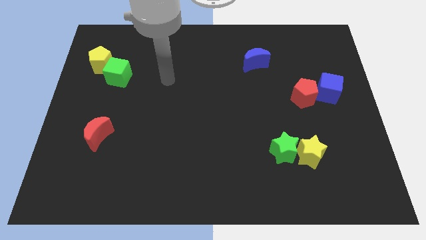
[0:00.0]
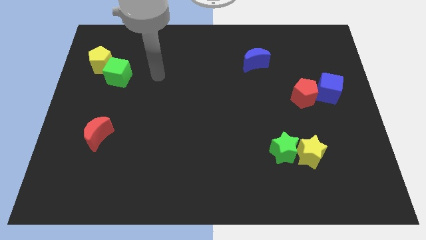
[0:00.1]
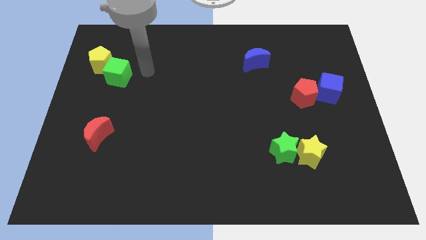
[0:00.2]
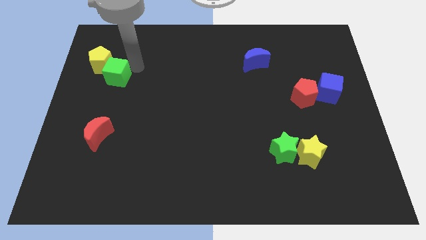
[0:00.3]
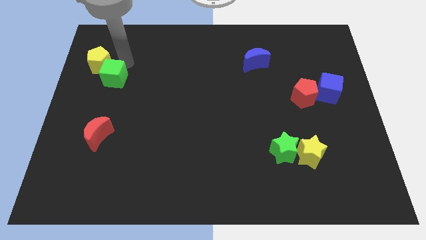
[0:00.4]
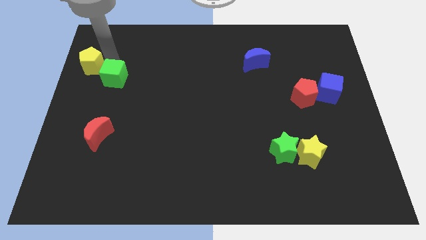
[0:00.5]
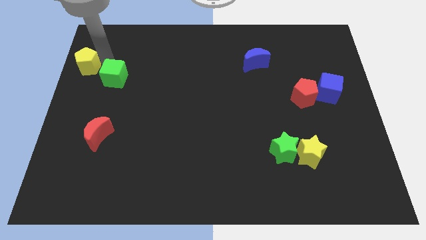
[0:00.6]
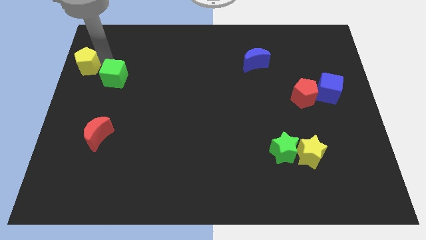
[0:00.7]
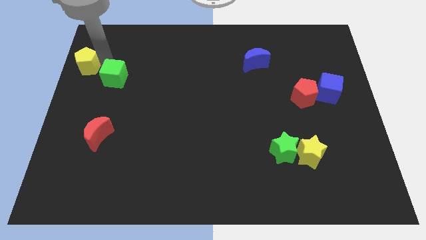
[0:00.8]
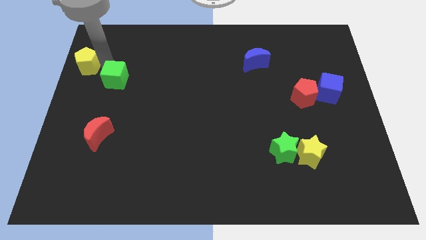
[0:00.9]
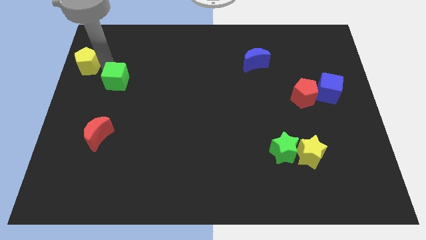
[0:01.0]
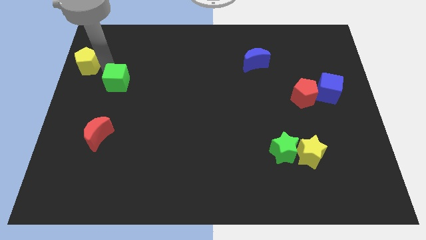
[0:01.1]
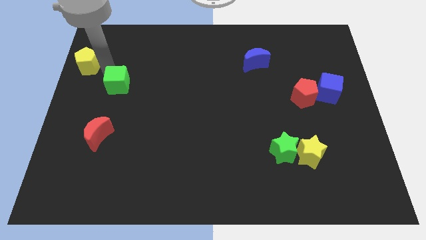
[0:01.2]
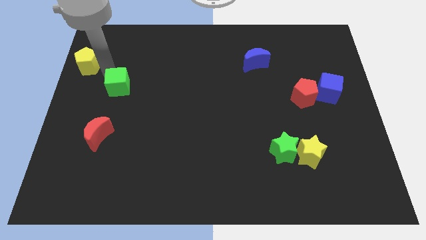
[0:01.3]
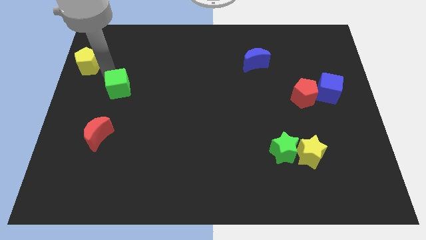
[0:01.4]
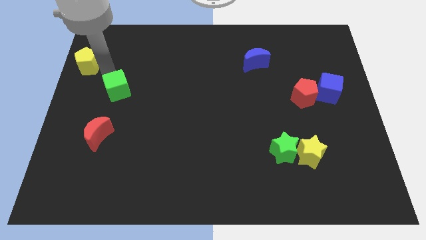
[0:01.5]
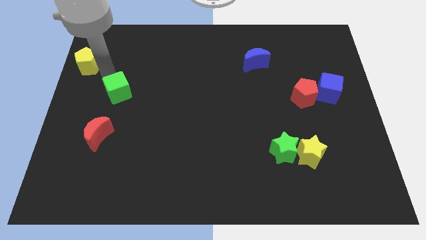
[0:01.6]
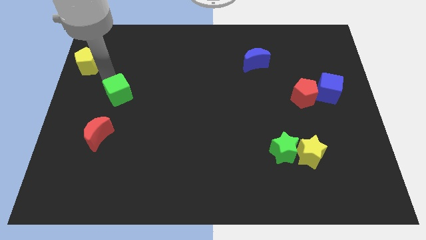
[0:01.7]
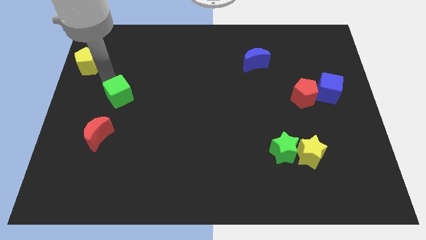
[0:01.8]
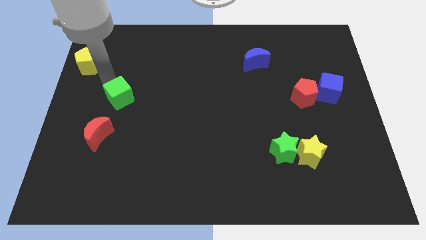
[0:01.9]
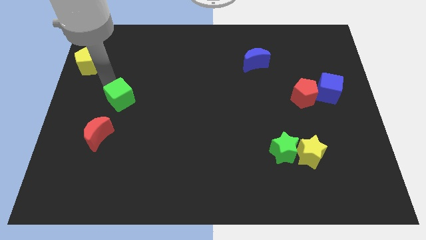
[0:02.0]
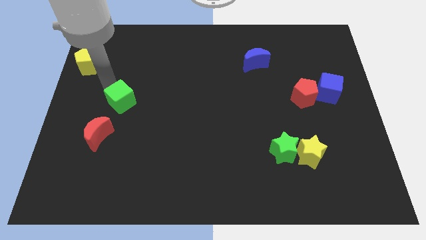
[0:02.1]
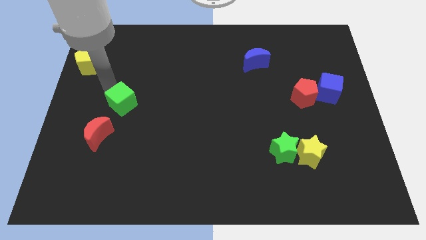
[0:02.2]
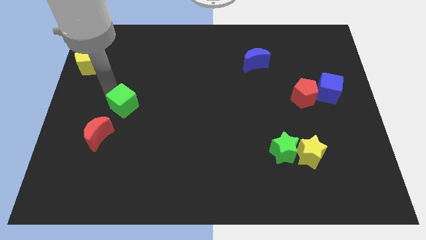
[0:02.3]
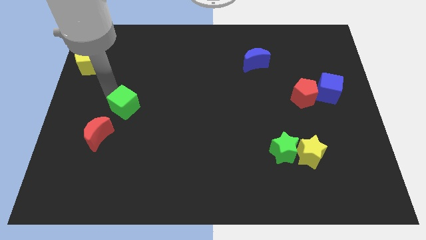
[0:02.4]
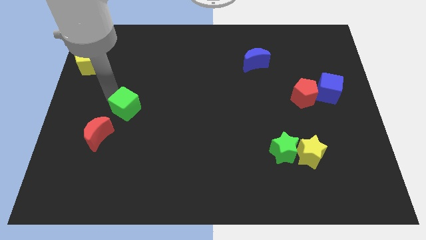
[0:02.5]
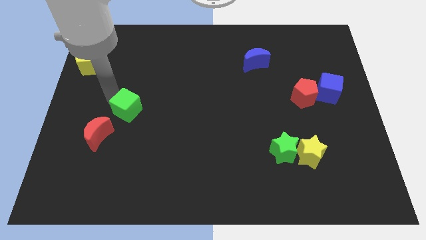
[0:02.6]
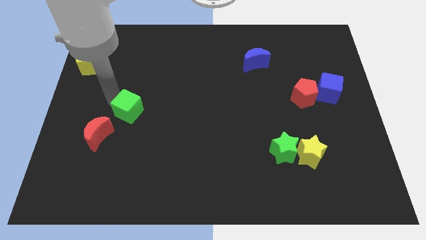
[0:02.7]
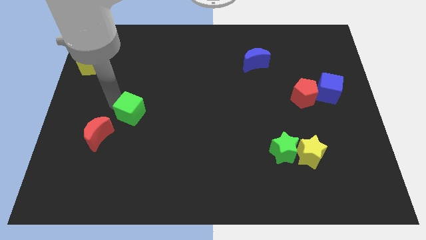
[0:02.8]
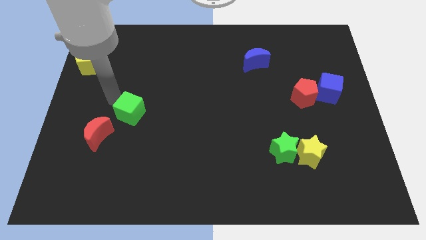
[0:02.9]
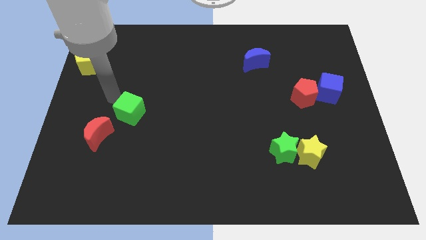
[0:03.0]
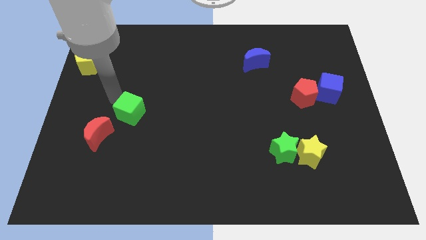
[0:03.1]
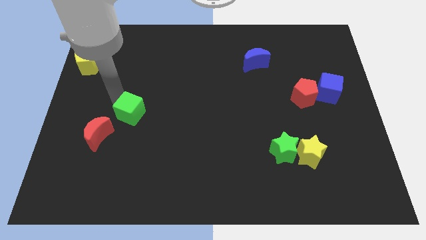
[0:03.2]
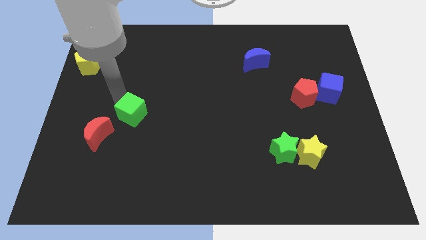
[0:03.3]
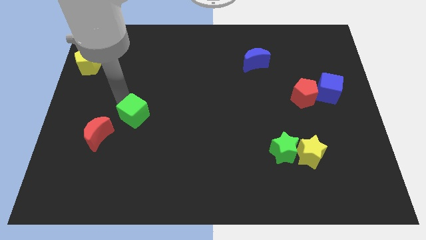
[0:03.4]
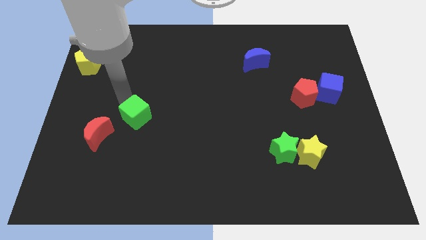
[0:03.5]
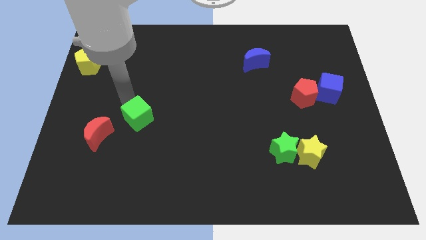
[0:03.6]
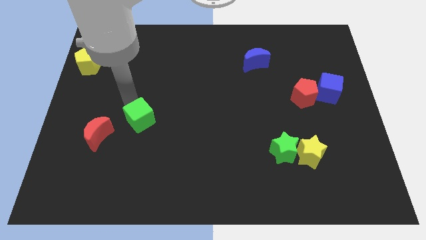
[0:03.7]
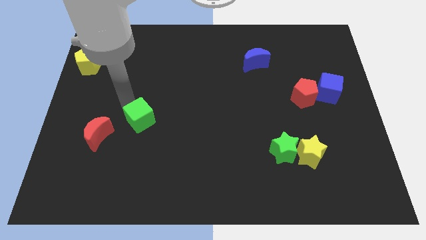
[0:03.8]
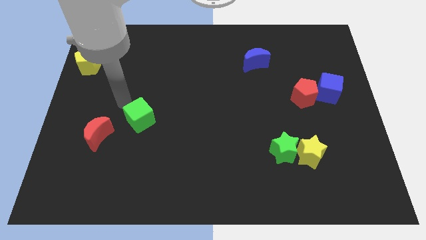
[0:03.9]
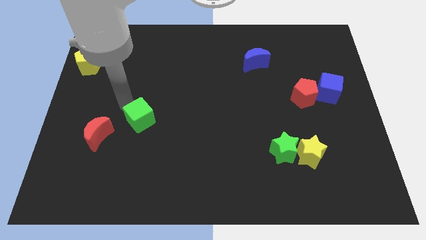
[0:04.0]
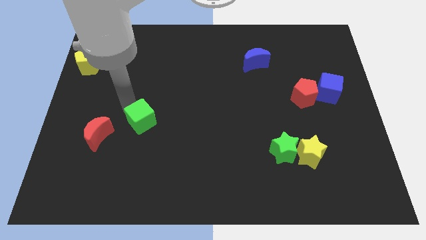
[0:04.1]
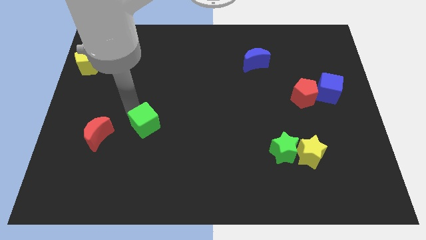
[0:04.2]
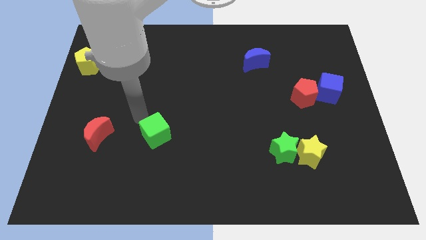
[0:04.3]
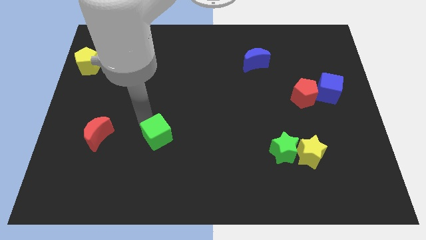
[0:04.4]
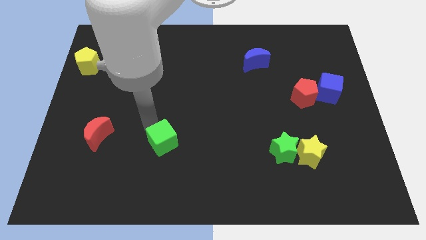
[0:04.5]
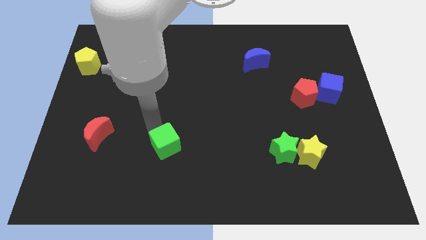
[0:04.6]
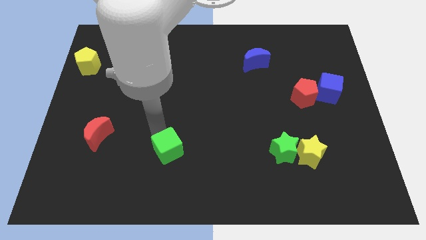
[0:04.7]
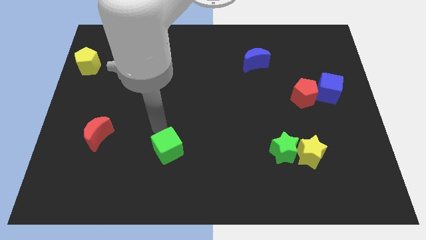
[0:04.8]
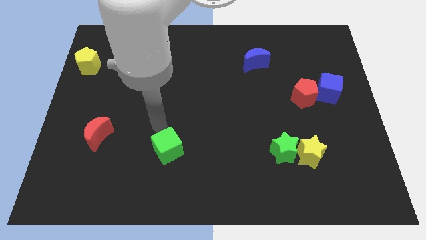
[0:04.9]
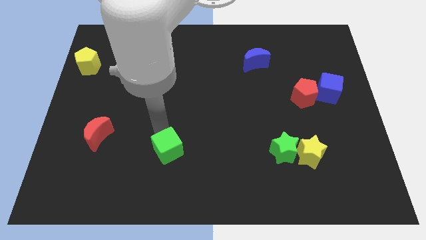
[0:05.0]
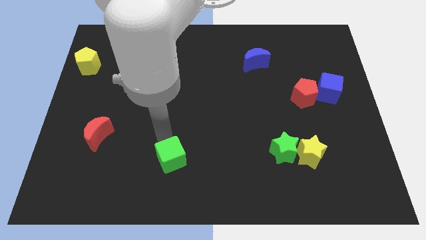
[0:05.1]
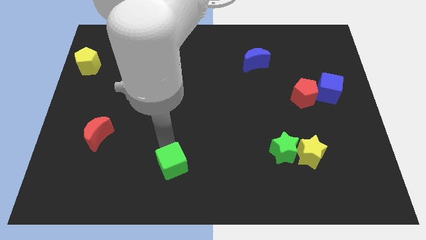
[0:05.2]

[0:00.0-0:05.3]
push the green cube to the bottom side
